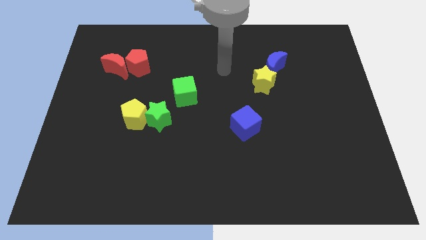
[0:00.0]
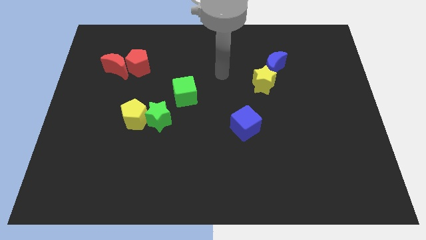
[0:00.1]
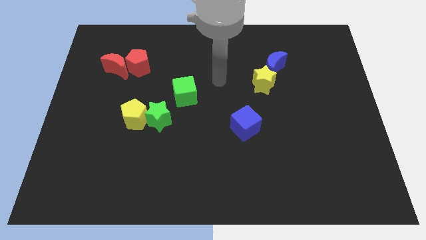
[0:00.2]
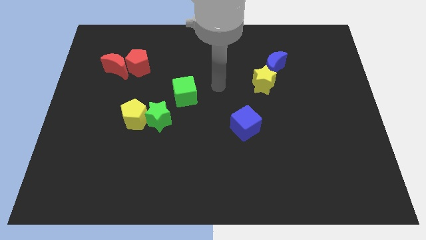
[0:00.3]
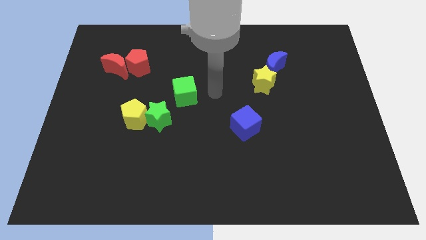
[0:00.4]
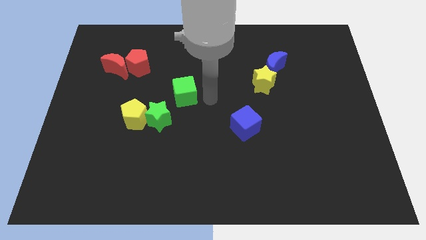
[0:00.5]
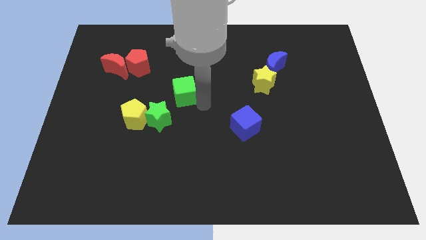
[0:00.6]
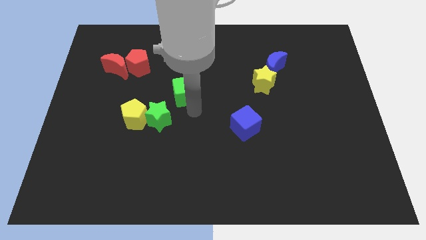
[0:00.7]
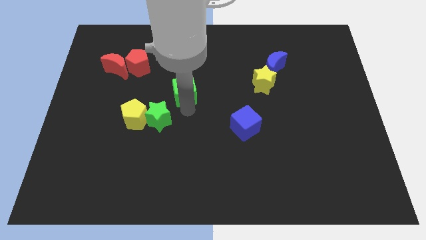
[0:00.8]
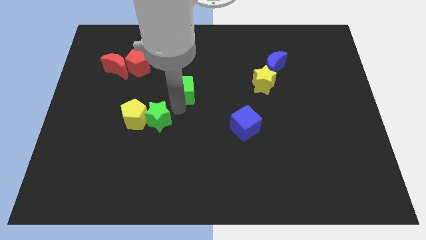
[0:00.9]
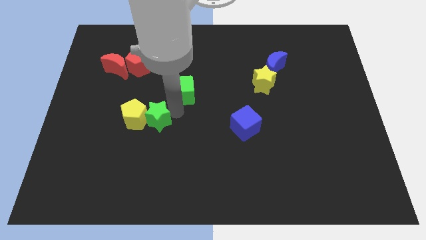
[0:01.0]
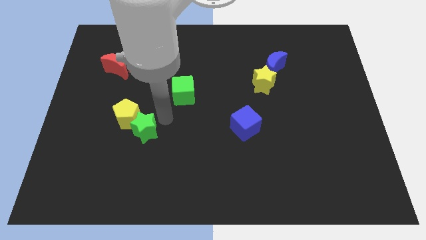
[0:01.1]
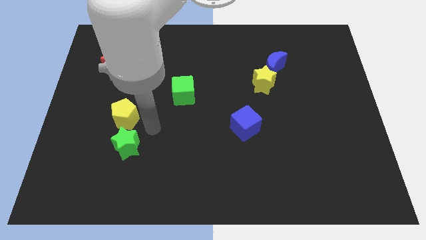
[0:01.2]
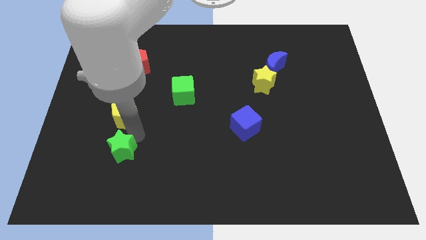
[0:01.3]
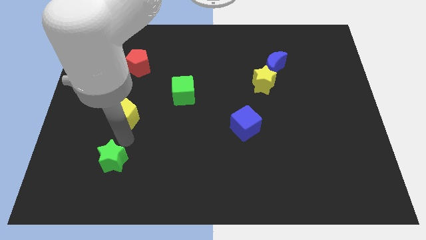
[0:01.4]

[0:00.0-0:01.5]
separate the yellow pentagon from the green star

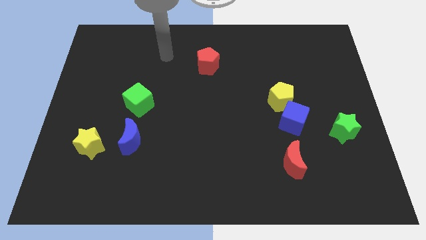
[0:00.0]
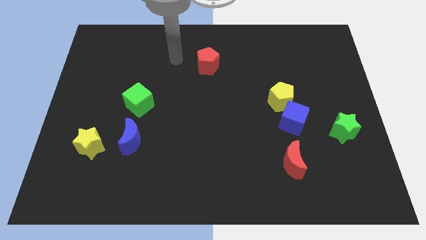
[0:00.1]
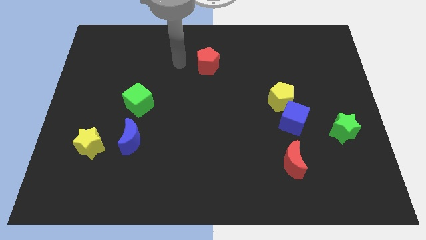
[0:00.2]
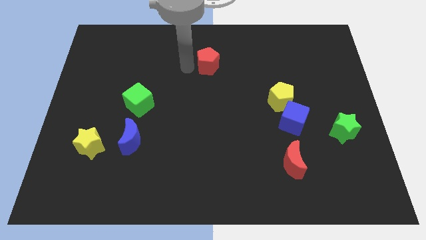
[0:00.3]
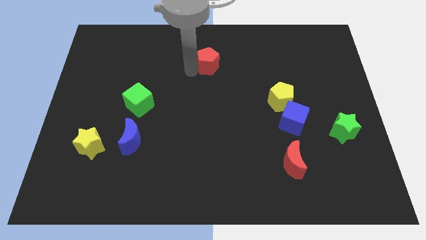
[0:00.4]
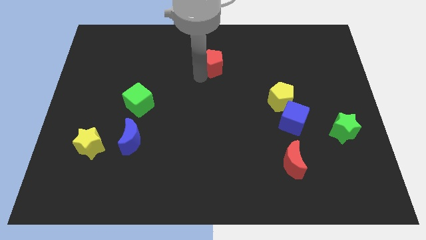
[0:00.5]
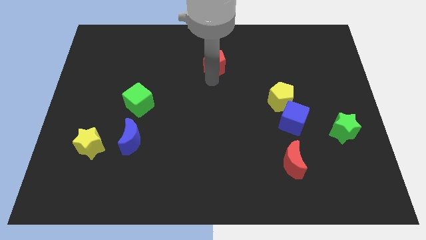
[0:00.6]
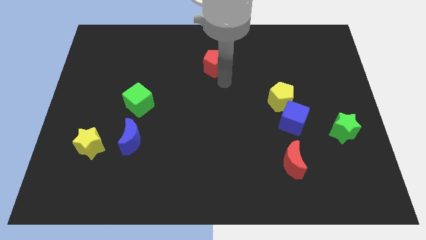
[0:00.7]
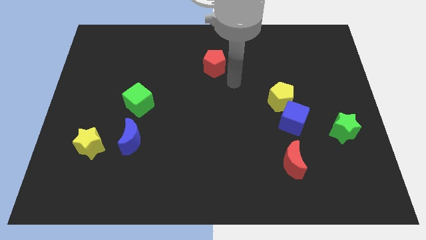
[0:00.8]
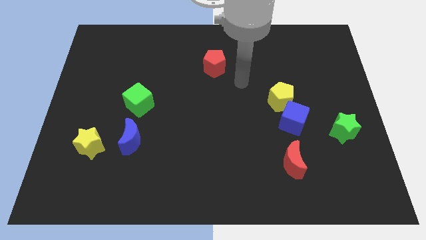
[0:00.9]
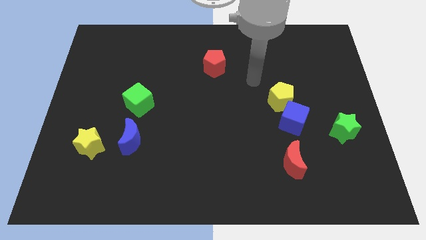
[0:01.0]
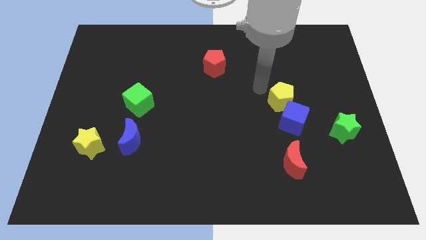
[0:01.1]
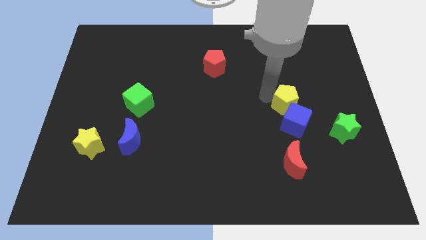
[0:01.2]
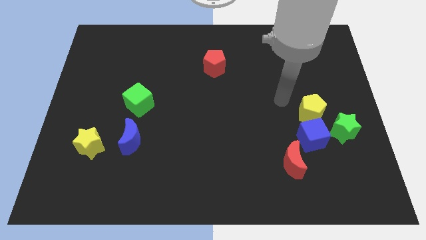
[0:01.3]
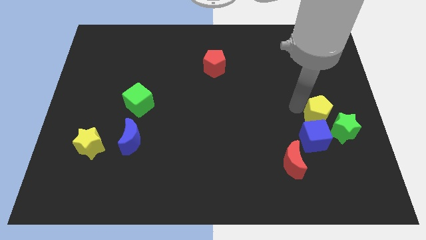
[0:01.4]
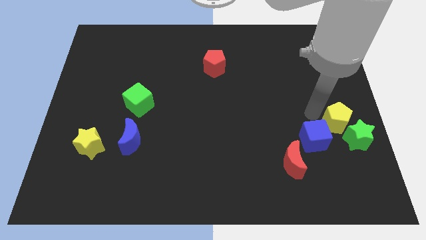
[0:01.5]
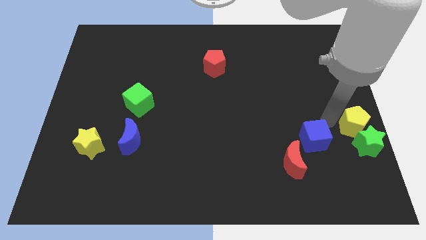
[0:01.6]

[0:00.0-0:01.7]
pull the blue cube apart from the yellow pentagon

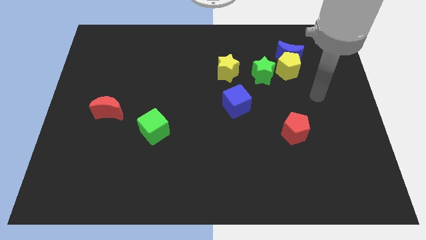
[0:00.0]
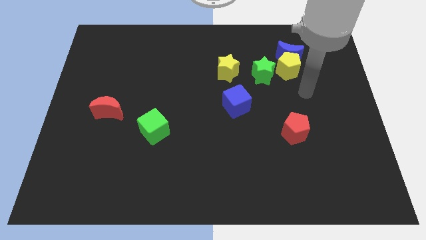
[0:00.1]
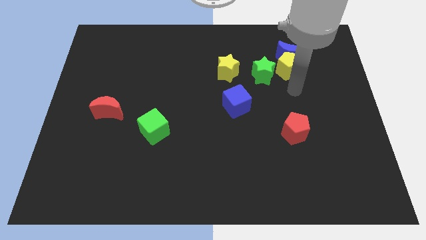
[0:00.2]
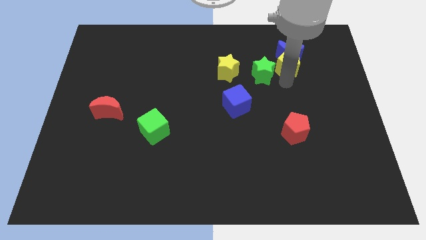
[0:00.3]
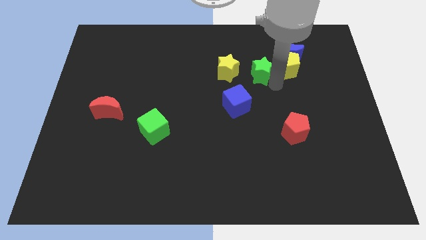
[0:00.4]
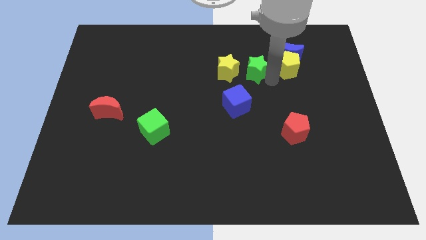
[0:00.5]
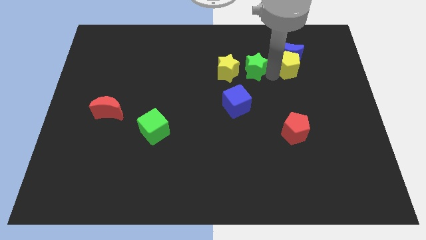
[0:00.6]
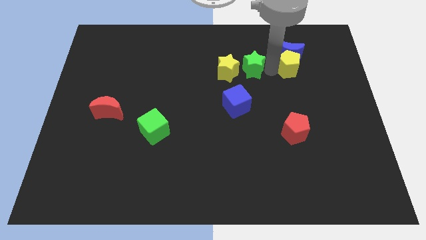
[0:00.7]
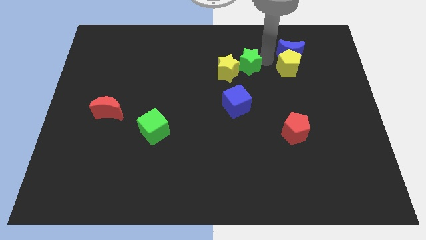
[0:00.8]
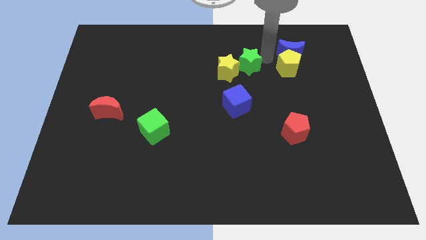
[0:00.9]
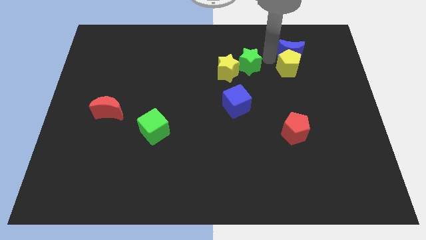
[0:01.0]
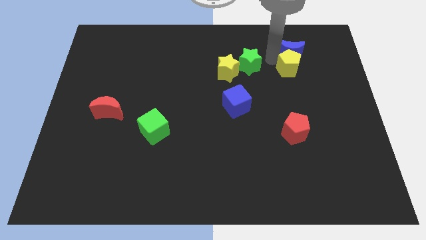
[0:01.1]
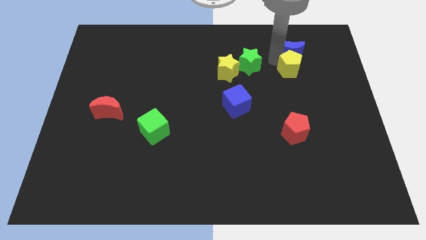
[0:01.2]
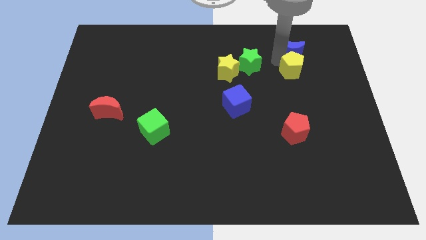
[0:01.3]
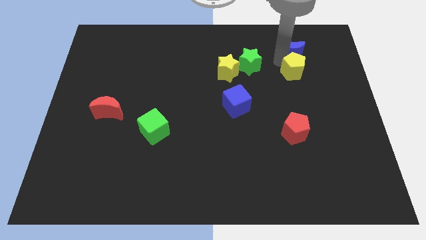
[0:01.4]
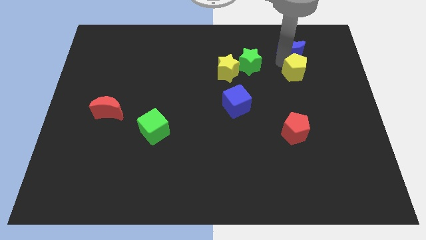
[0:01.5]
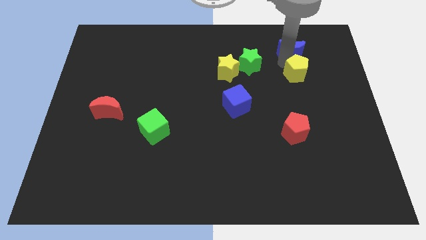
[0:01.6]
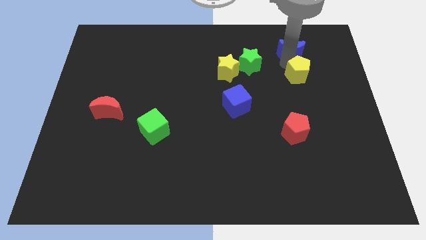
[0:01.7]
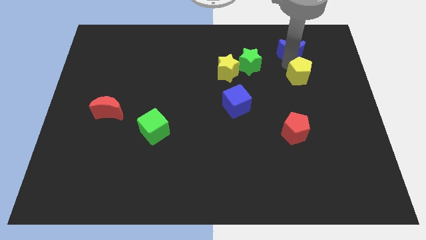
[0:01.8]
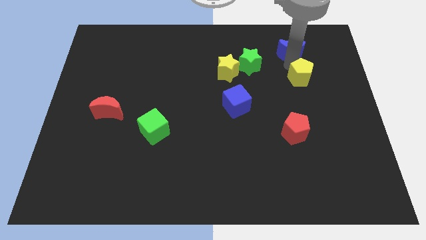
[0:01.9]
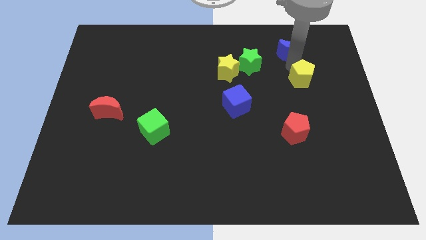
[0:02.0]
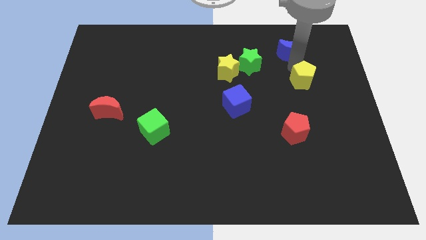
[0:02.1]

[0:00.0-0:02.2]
separate the yellow pentagon from the blue moon and green star

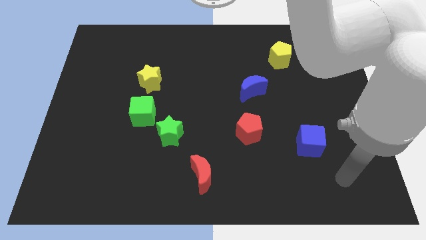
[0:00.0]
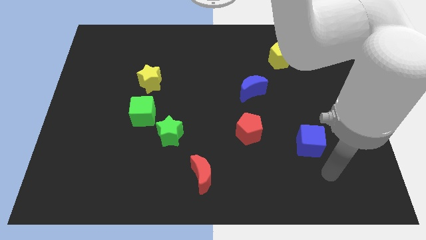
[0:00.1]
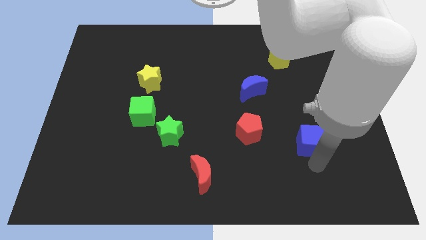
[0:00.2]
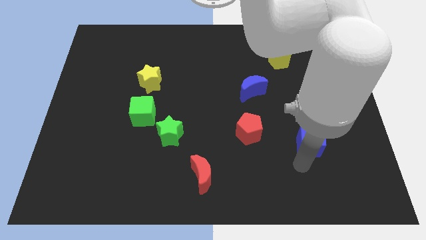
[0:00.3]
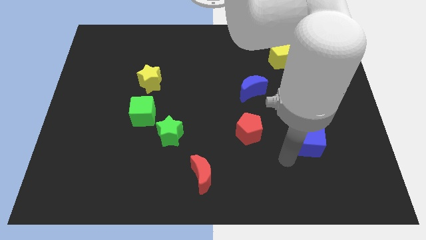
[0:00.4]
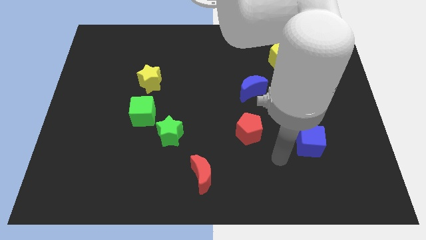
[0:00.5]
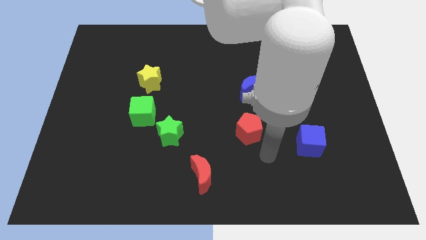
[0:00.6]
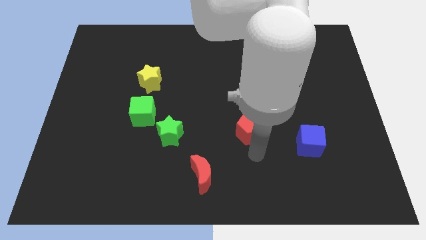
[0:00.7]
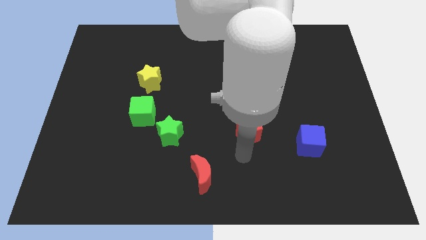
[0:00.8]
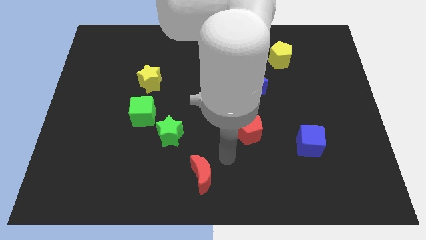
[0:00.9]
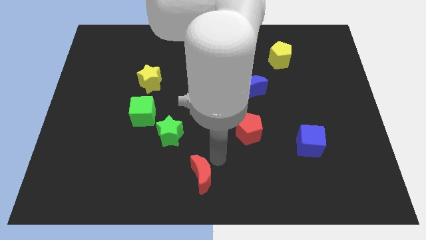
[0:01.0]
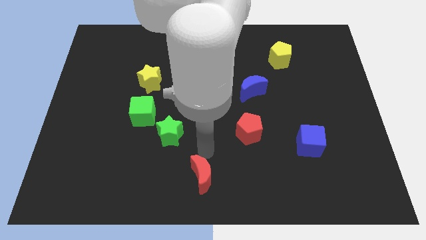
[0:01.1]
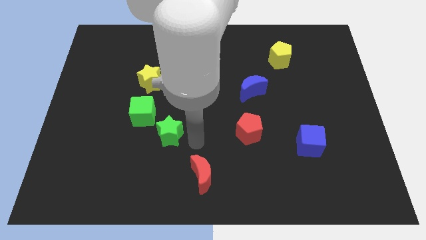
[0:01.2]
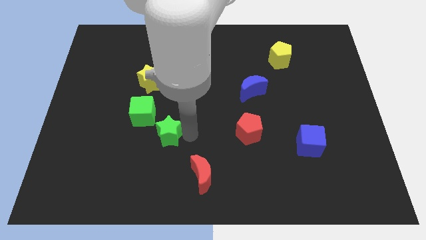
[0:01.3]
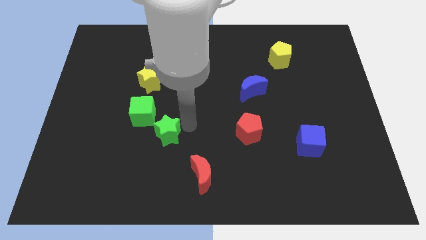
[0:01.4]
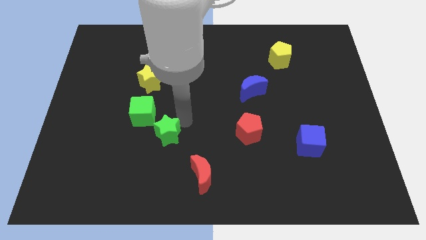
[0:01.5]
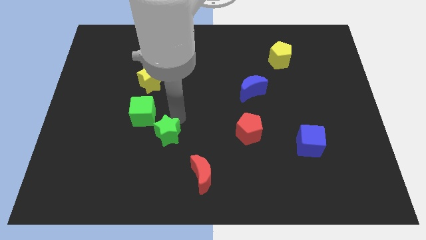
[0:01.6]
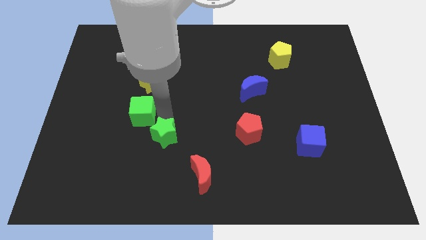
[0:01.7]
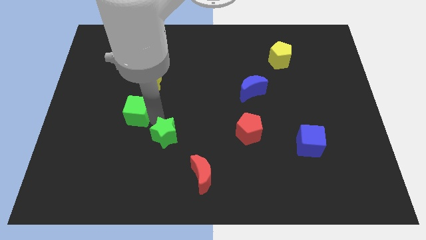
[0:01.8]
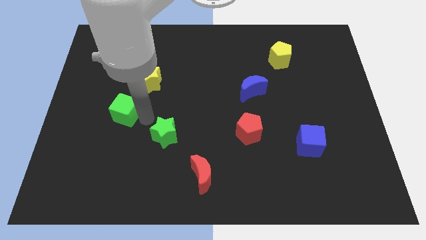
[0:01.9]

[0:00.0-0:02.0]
separate the green star from the green cube

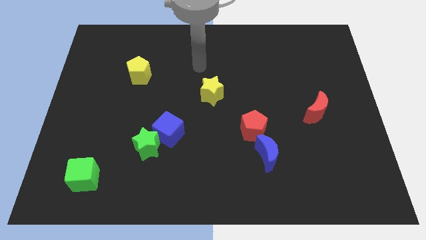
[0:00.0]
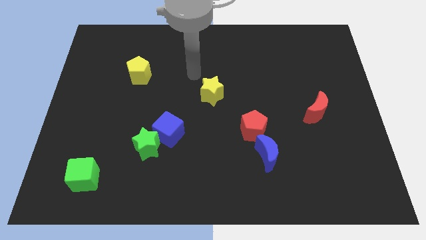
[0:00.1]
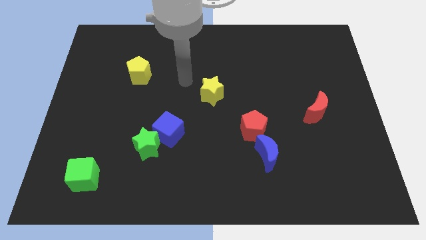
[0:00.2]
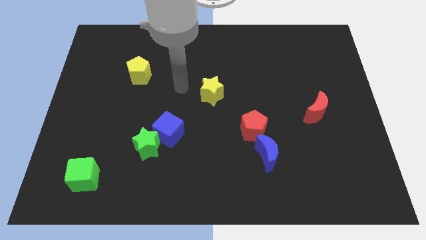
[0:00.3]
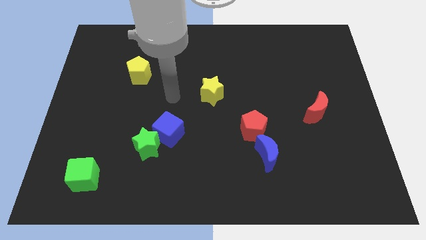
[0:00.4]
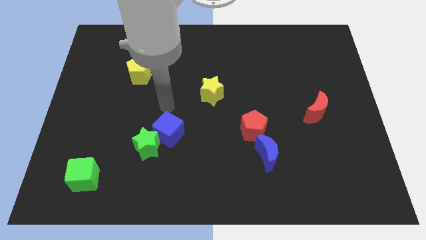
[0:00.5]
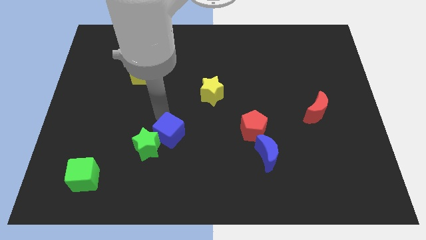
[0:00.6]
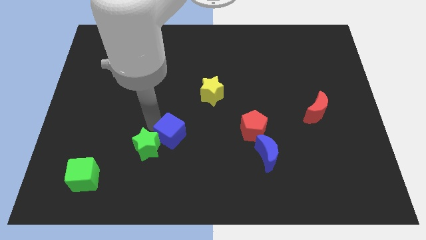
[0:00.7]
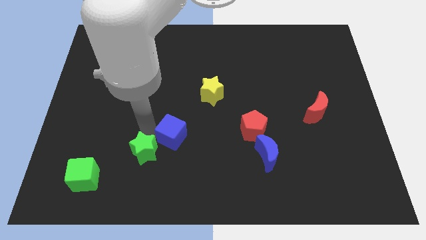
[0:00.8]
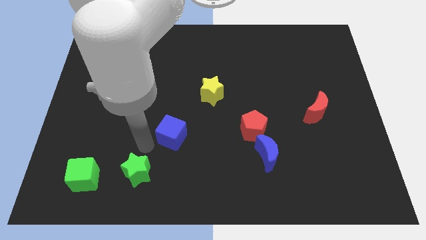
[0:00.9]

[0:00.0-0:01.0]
move the blue cube away from the green star

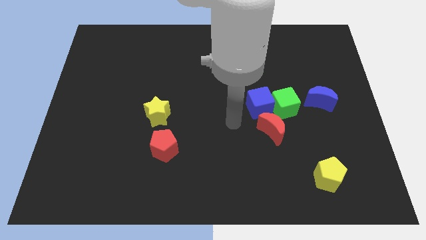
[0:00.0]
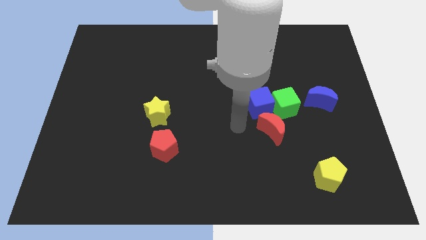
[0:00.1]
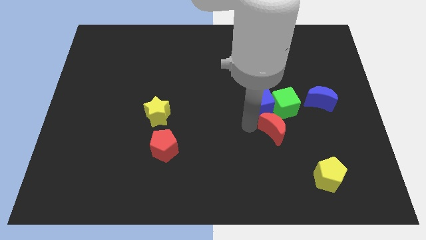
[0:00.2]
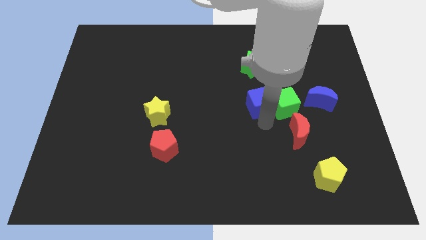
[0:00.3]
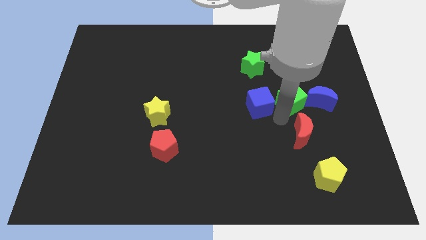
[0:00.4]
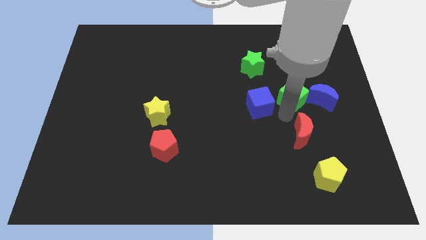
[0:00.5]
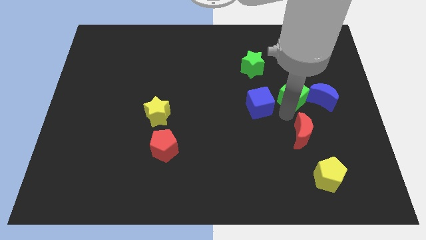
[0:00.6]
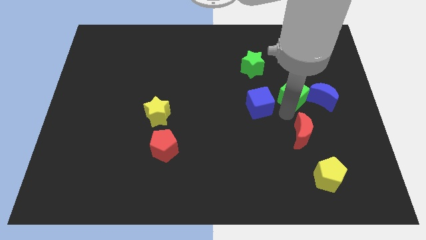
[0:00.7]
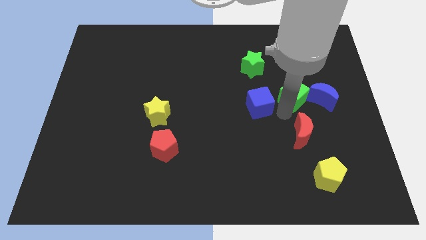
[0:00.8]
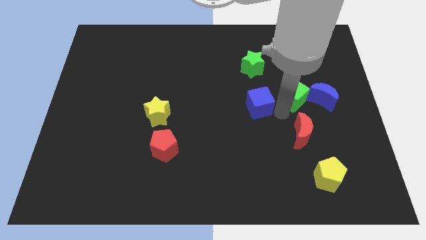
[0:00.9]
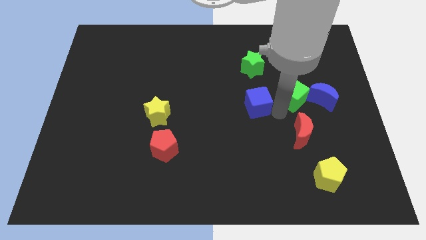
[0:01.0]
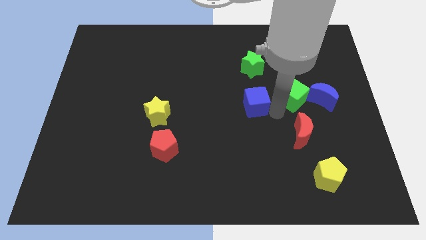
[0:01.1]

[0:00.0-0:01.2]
move the blue cube away from the green cube and red moon
